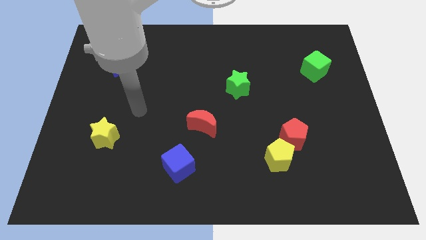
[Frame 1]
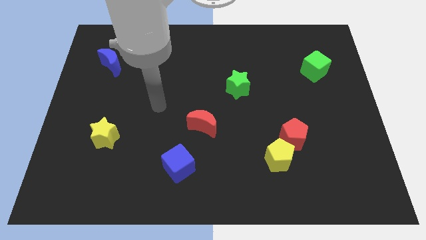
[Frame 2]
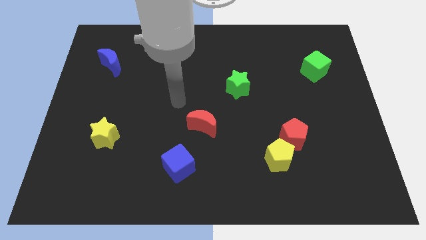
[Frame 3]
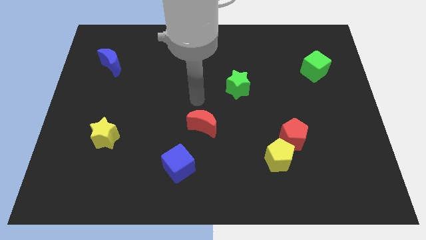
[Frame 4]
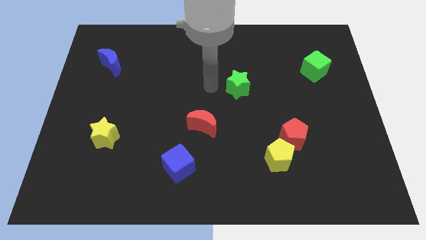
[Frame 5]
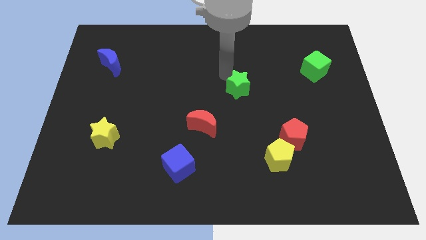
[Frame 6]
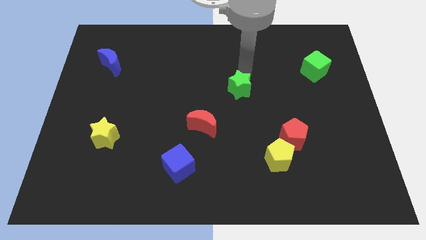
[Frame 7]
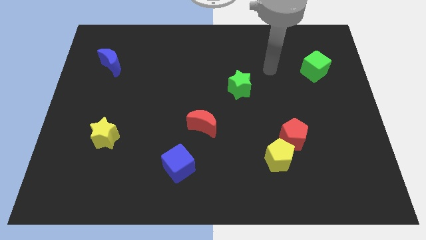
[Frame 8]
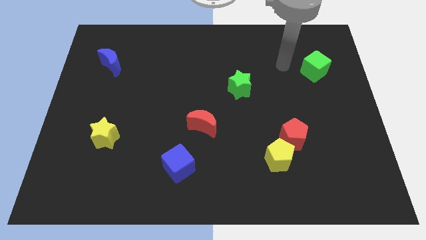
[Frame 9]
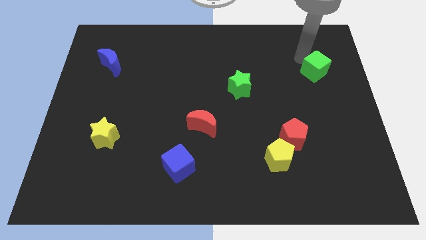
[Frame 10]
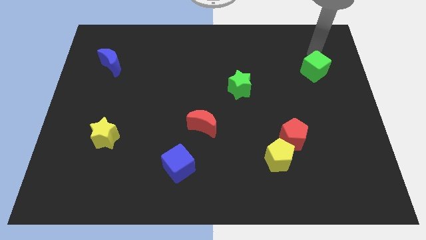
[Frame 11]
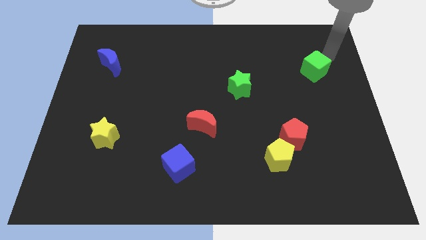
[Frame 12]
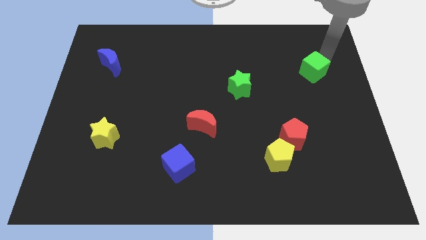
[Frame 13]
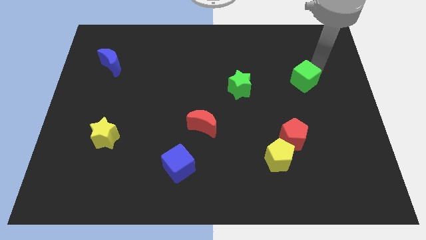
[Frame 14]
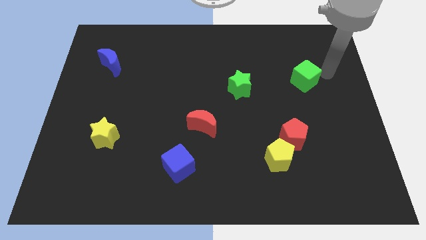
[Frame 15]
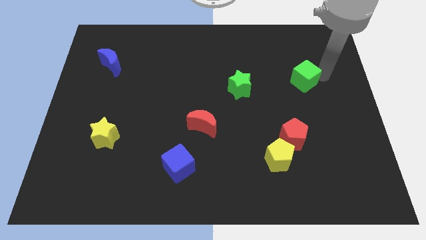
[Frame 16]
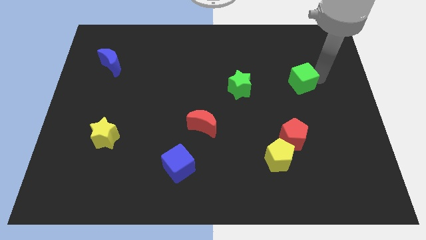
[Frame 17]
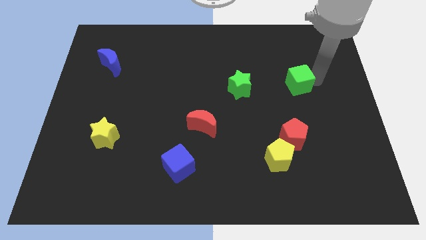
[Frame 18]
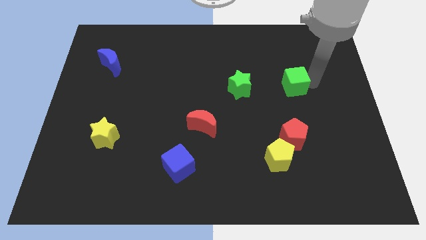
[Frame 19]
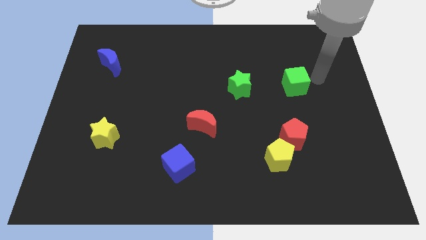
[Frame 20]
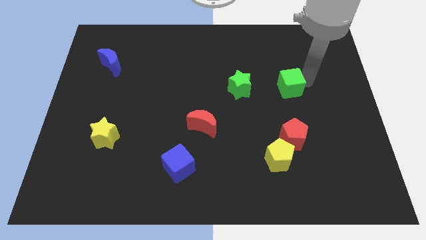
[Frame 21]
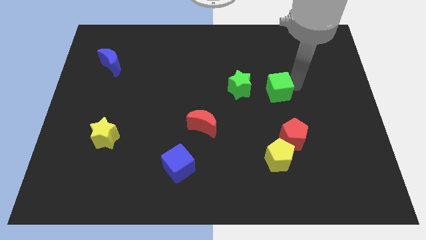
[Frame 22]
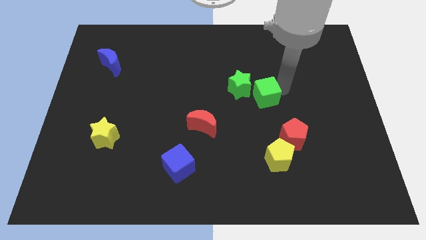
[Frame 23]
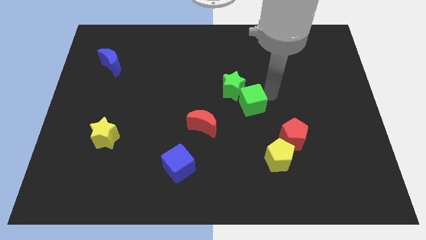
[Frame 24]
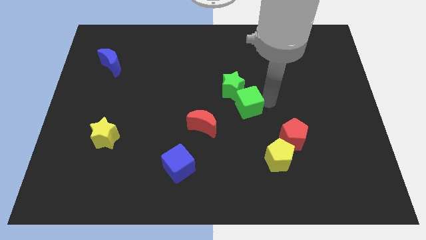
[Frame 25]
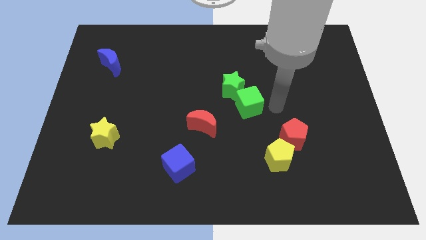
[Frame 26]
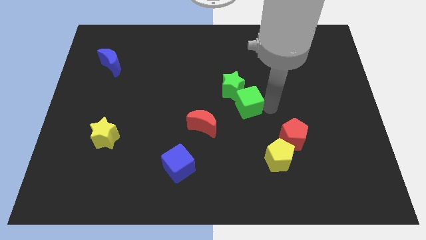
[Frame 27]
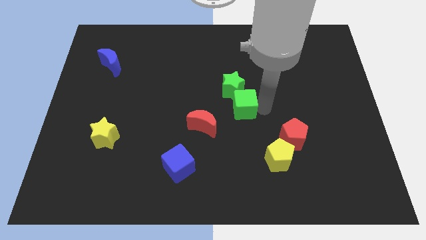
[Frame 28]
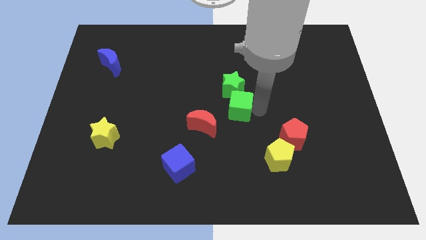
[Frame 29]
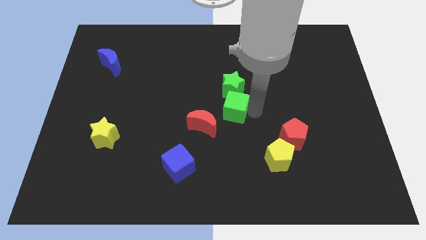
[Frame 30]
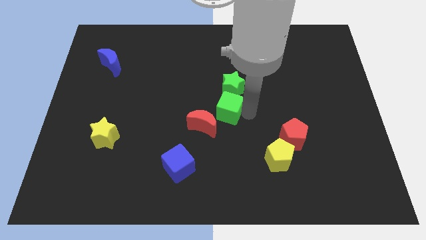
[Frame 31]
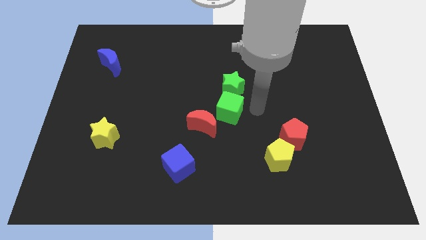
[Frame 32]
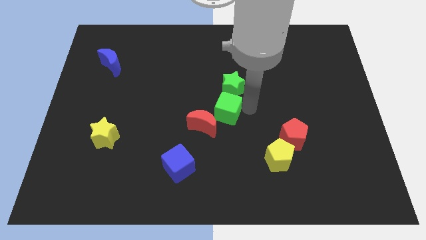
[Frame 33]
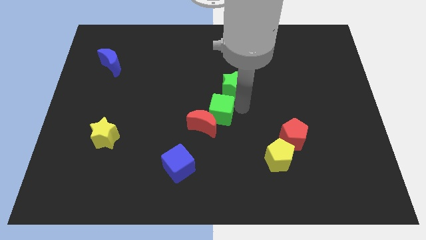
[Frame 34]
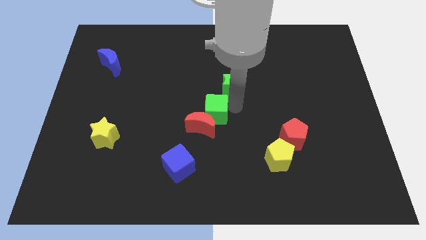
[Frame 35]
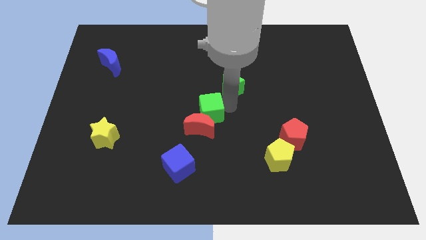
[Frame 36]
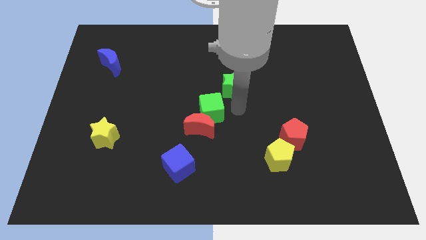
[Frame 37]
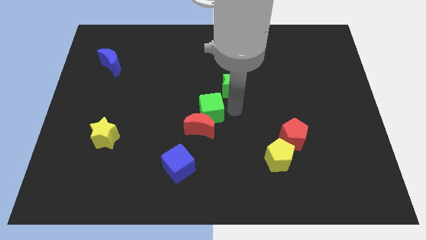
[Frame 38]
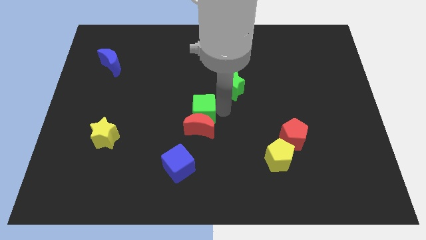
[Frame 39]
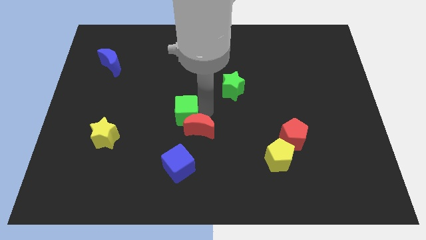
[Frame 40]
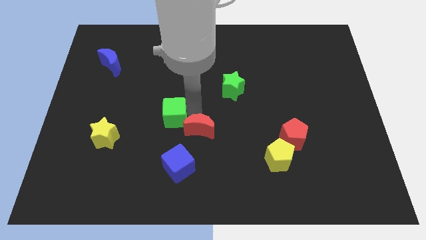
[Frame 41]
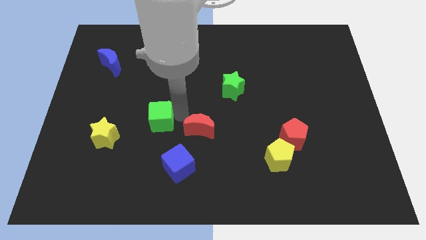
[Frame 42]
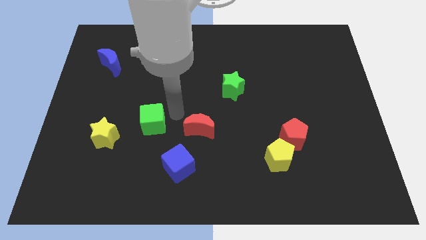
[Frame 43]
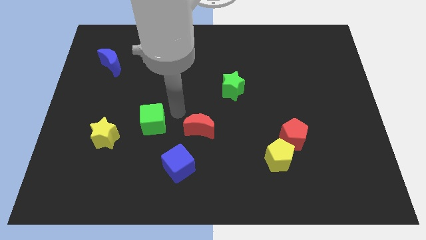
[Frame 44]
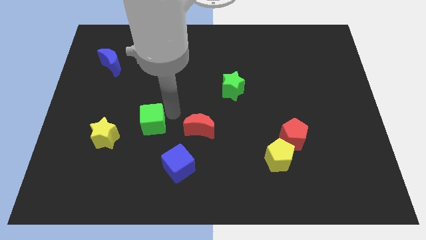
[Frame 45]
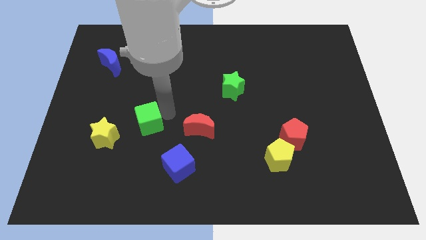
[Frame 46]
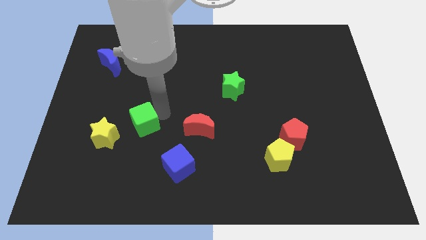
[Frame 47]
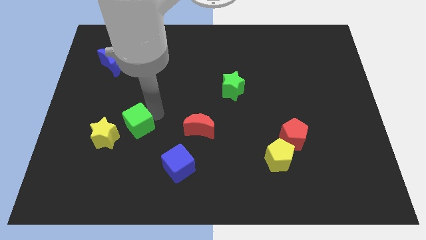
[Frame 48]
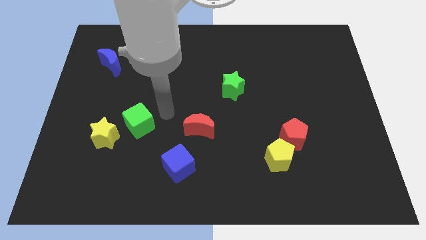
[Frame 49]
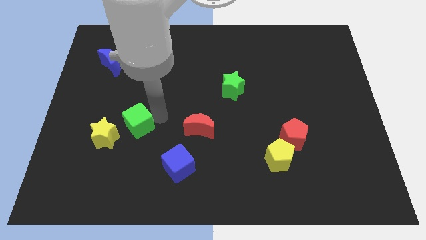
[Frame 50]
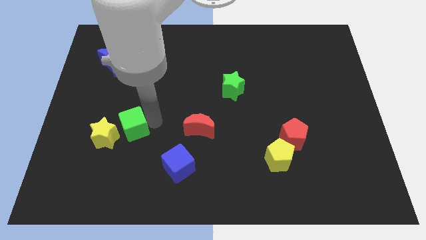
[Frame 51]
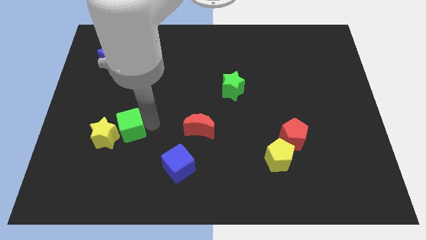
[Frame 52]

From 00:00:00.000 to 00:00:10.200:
slide the green cube close to the yellow star

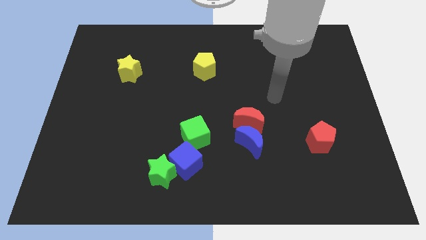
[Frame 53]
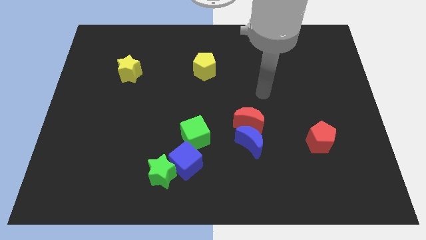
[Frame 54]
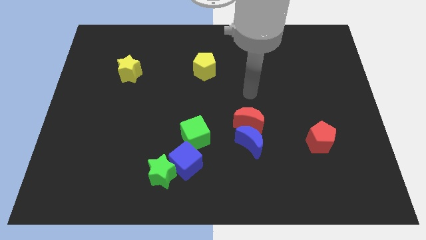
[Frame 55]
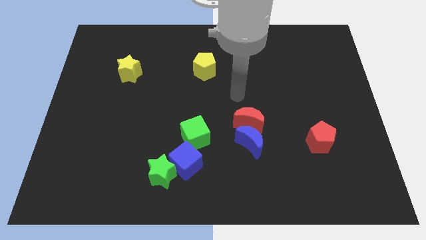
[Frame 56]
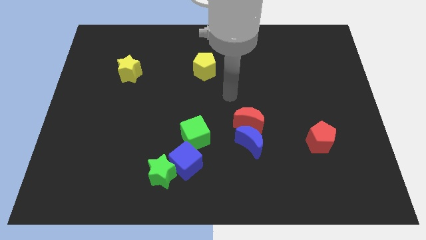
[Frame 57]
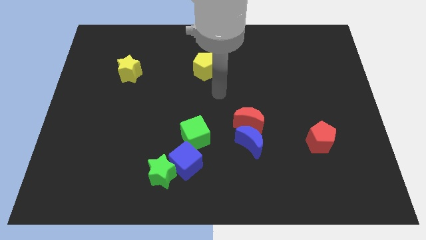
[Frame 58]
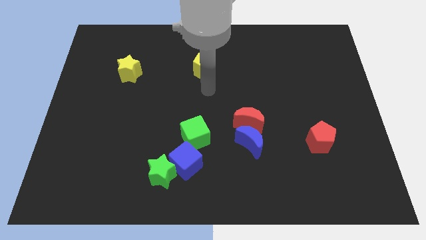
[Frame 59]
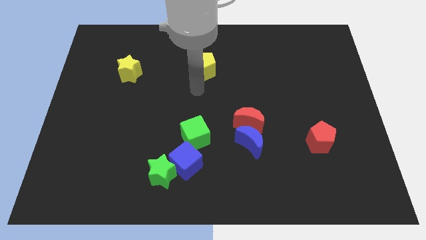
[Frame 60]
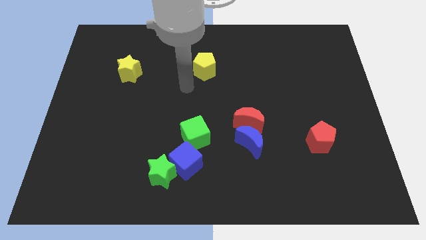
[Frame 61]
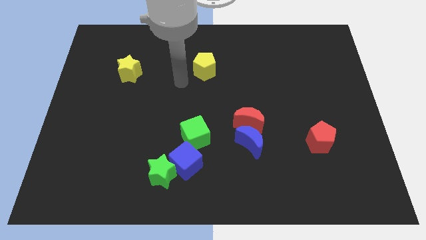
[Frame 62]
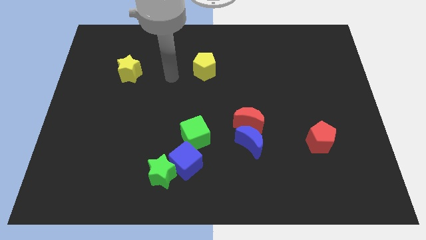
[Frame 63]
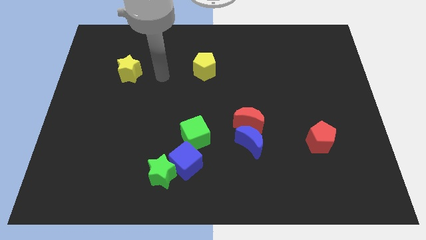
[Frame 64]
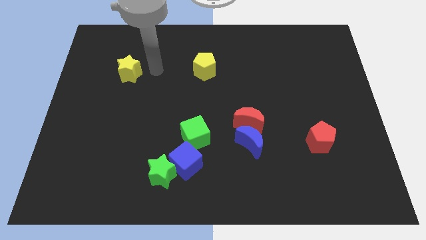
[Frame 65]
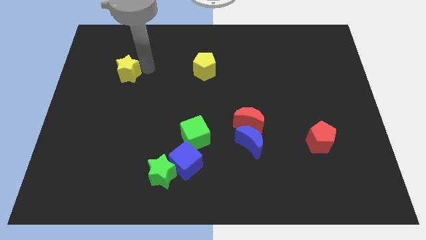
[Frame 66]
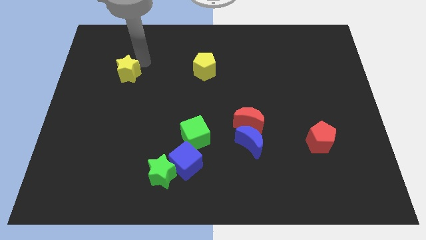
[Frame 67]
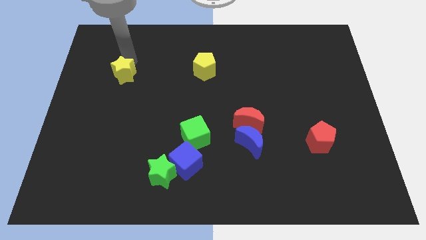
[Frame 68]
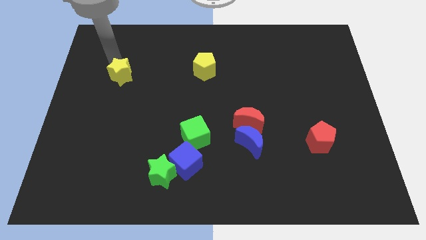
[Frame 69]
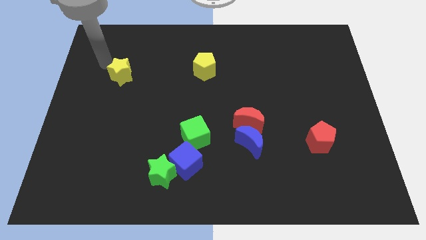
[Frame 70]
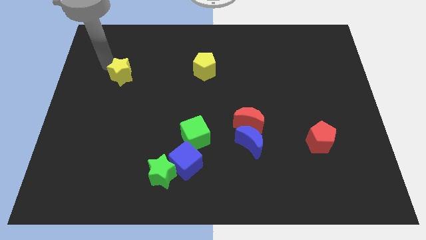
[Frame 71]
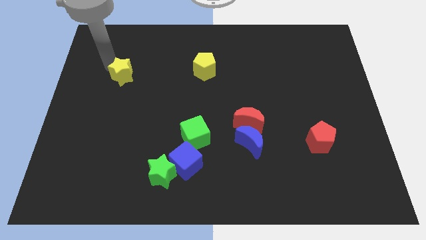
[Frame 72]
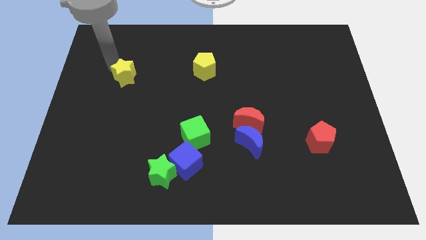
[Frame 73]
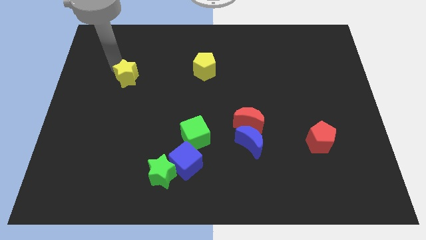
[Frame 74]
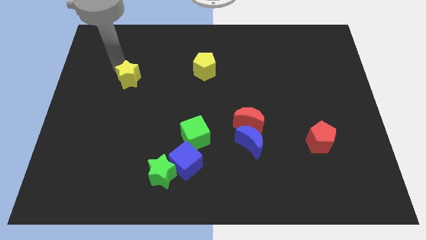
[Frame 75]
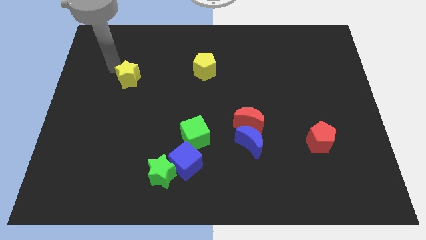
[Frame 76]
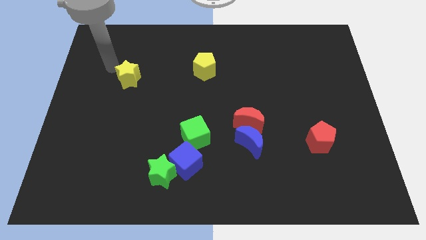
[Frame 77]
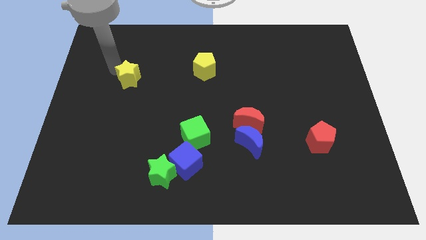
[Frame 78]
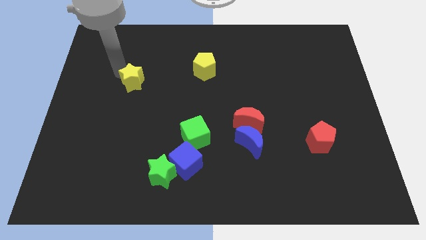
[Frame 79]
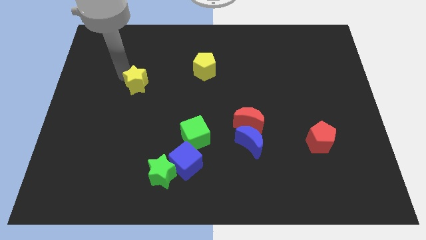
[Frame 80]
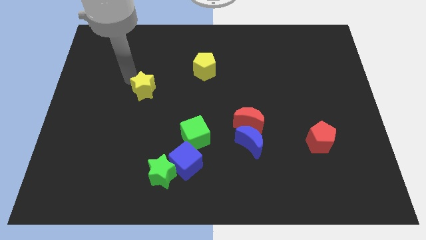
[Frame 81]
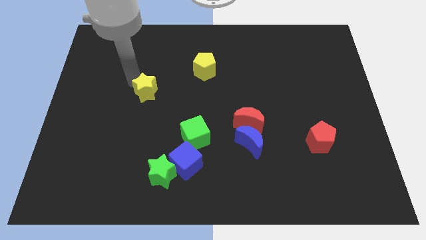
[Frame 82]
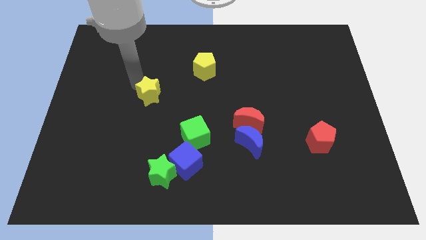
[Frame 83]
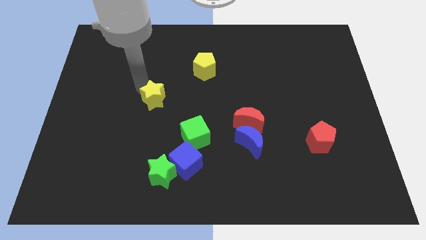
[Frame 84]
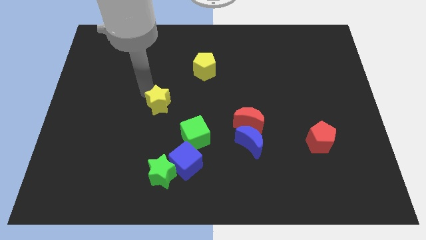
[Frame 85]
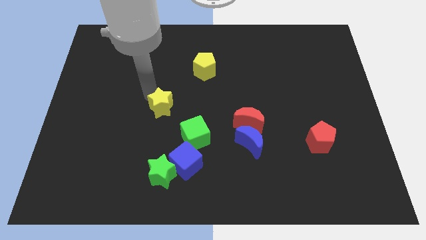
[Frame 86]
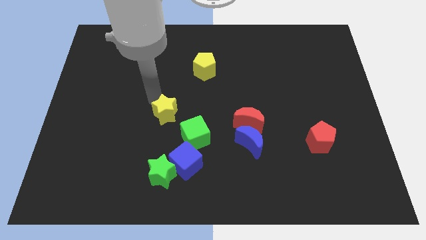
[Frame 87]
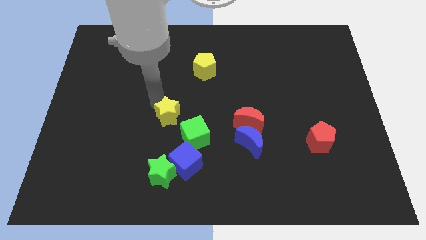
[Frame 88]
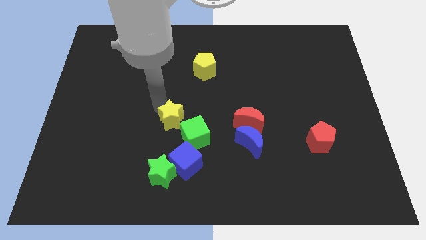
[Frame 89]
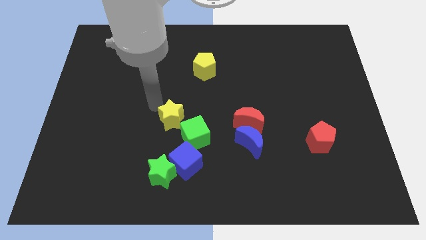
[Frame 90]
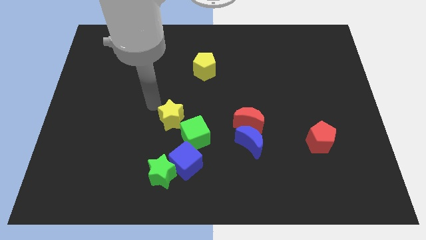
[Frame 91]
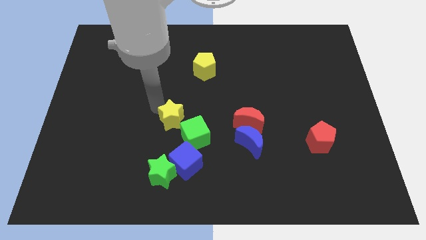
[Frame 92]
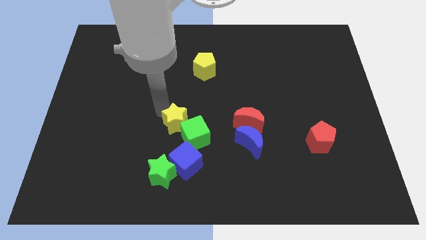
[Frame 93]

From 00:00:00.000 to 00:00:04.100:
move the yellow star to the green cube
